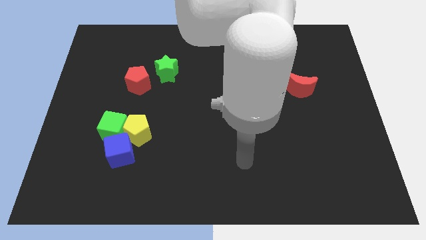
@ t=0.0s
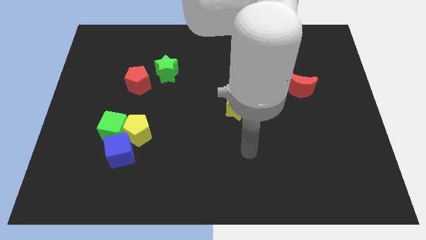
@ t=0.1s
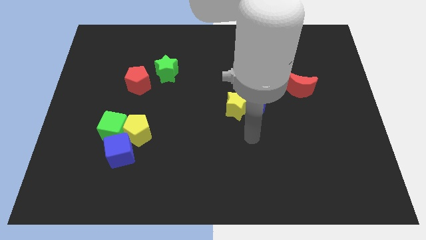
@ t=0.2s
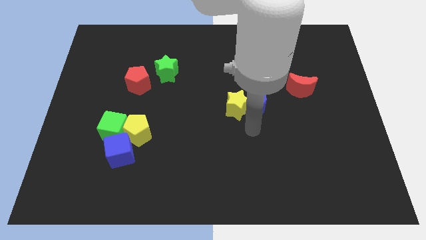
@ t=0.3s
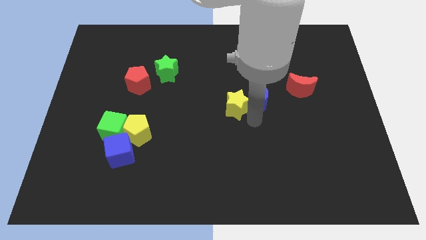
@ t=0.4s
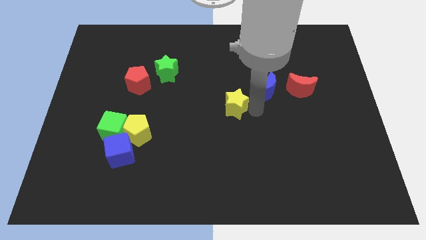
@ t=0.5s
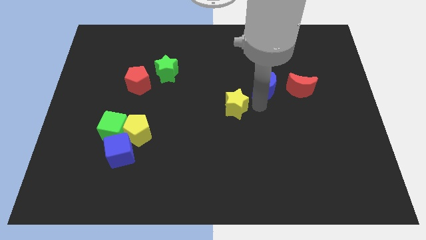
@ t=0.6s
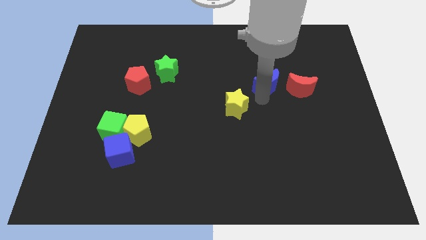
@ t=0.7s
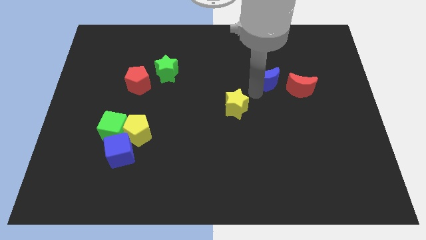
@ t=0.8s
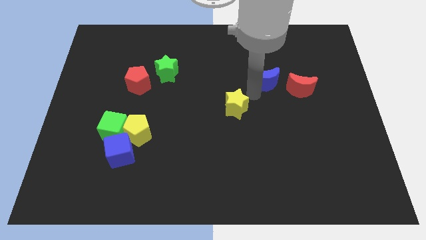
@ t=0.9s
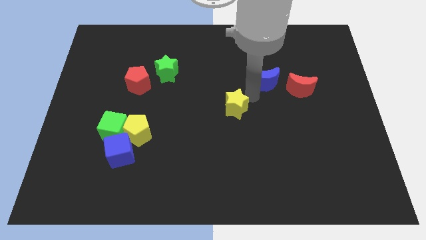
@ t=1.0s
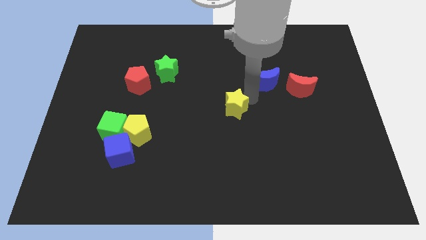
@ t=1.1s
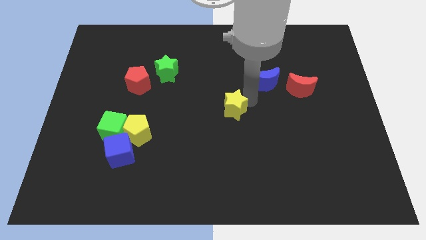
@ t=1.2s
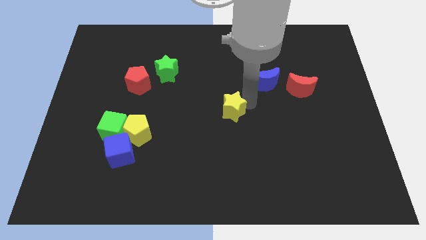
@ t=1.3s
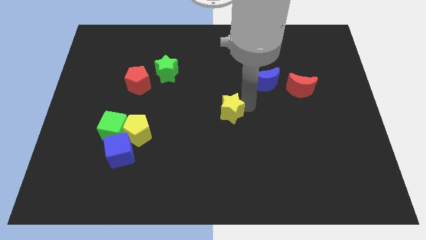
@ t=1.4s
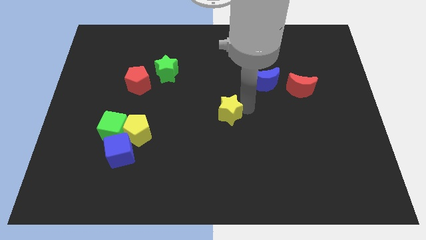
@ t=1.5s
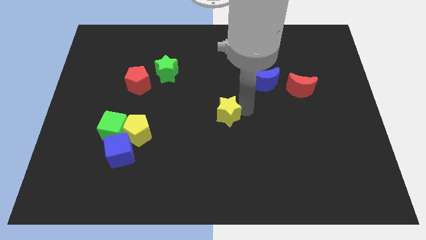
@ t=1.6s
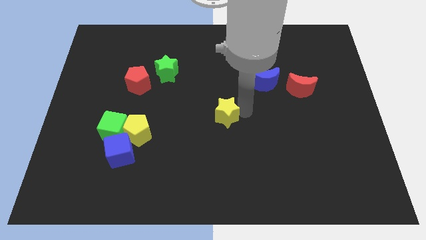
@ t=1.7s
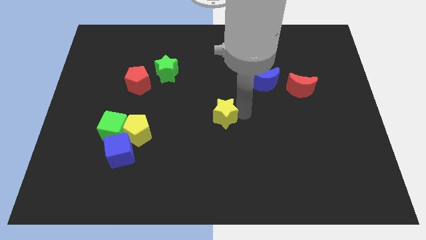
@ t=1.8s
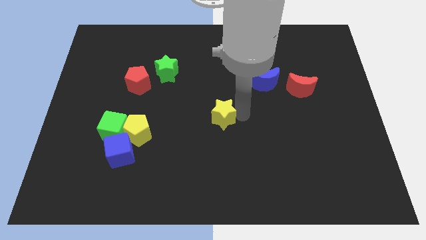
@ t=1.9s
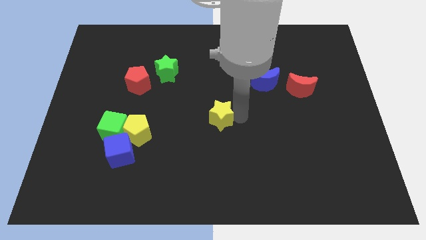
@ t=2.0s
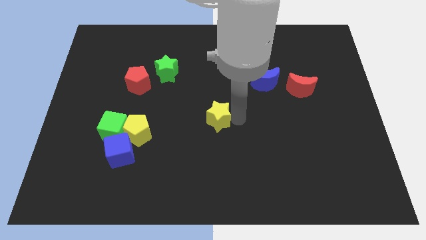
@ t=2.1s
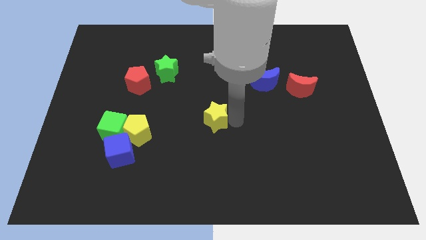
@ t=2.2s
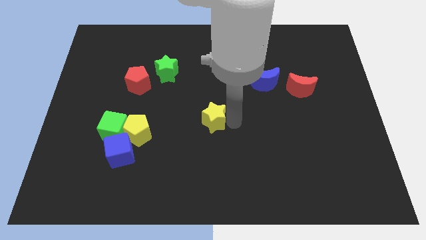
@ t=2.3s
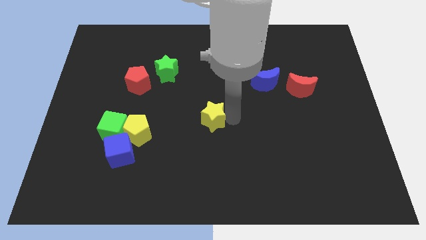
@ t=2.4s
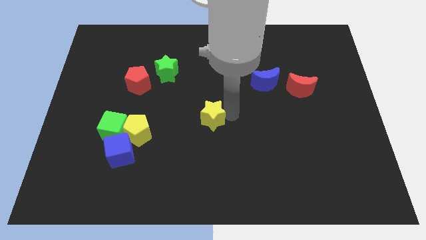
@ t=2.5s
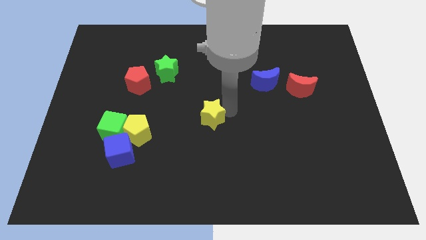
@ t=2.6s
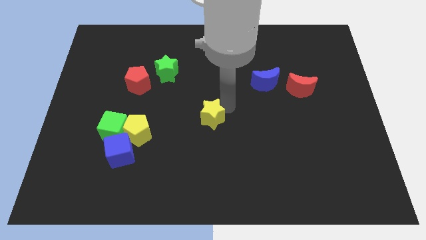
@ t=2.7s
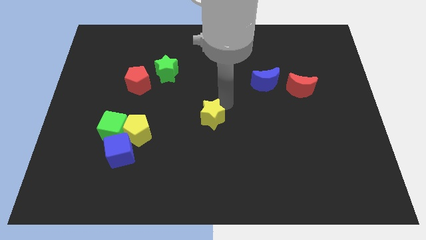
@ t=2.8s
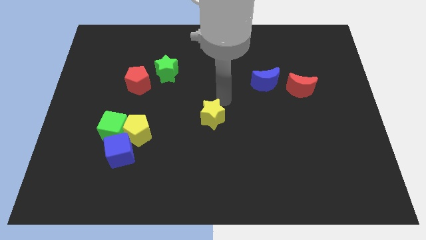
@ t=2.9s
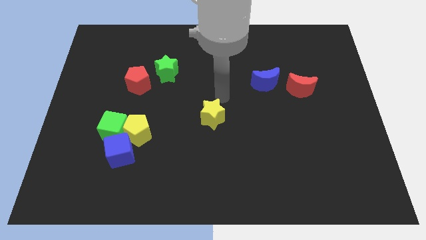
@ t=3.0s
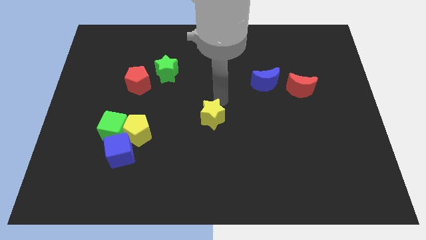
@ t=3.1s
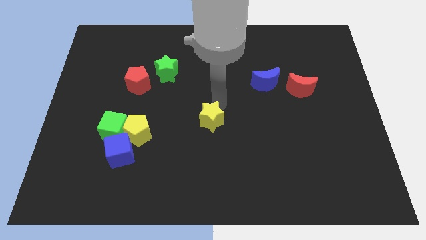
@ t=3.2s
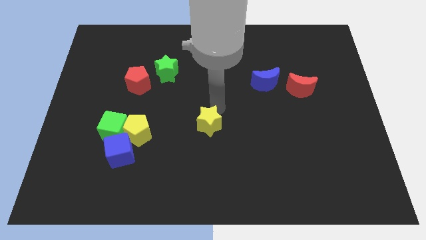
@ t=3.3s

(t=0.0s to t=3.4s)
push the yellow star a little bit diagonally downwards and left

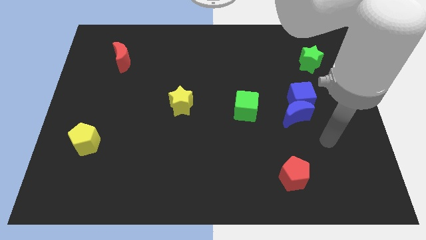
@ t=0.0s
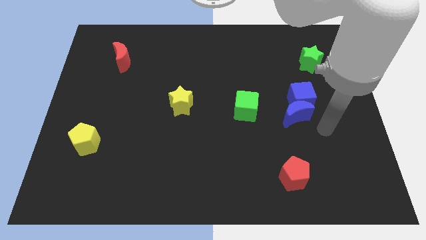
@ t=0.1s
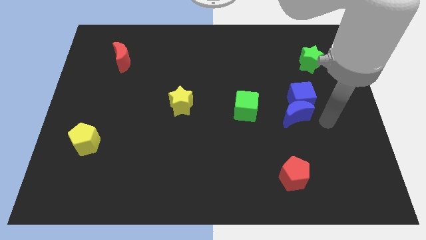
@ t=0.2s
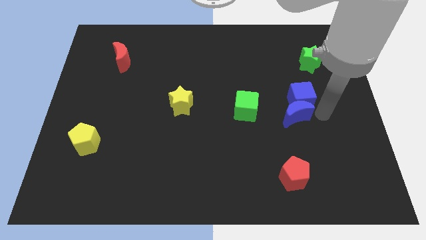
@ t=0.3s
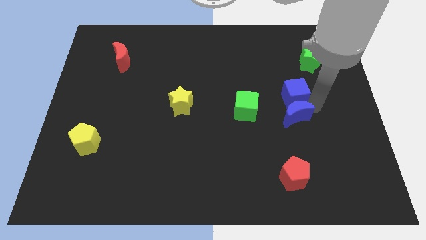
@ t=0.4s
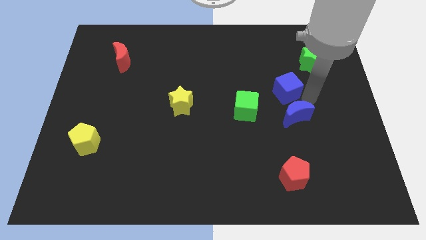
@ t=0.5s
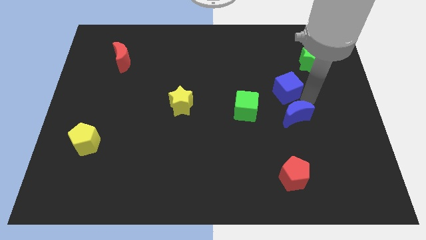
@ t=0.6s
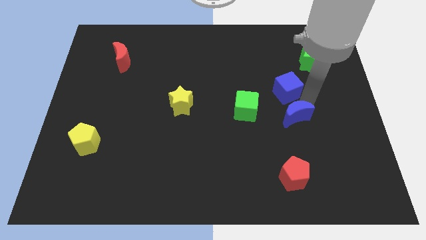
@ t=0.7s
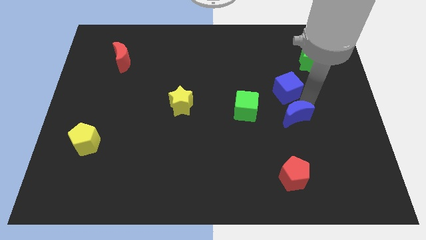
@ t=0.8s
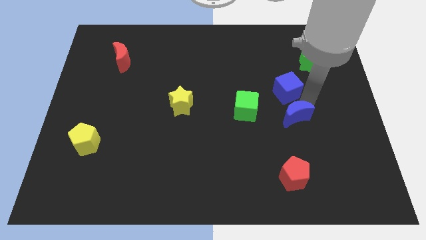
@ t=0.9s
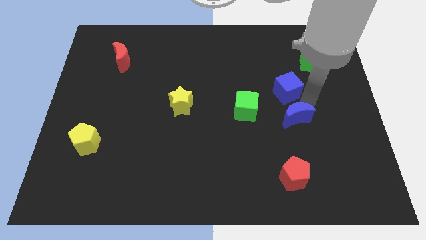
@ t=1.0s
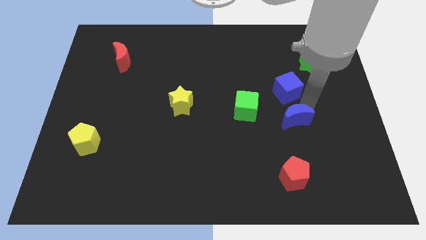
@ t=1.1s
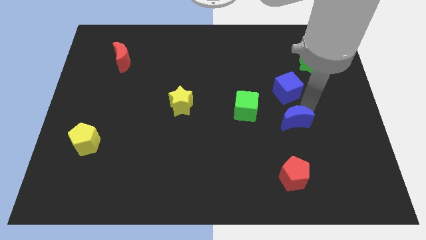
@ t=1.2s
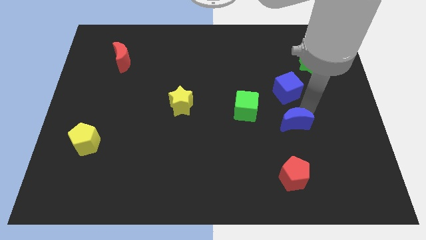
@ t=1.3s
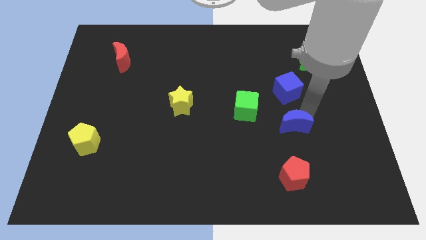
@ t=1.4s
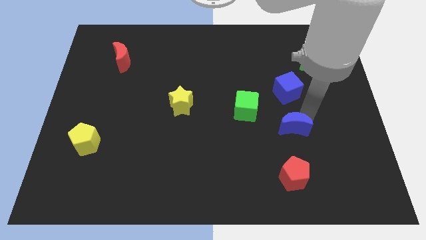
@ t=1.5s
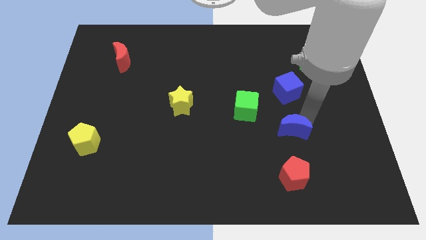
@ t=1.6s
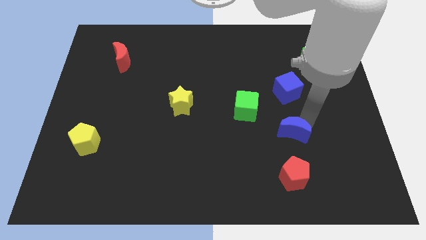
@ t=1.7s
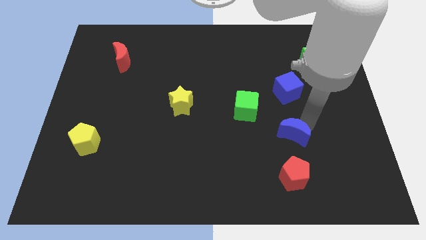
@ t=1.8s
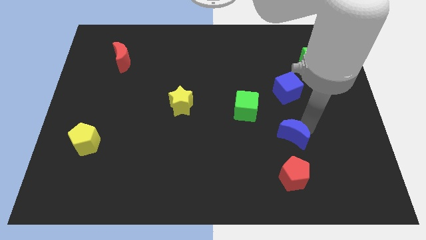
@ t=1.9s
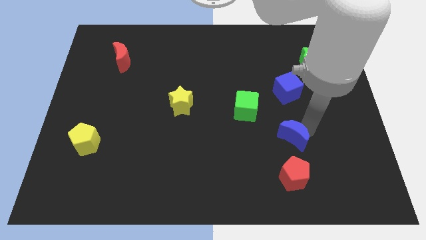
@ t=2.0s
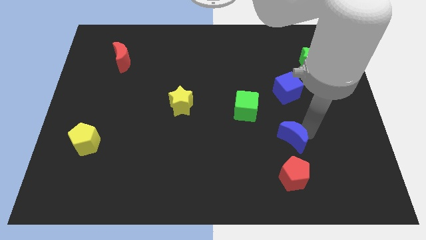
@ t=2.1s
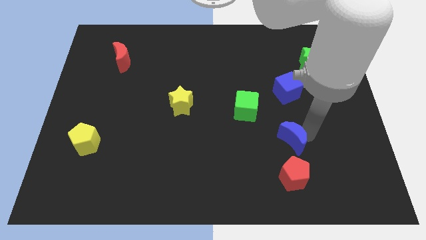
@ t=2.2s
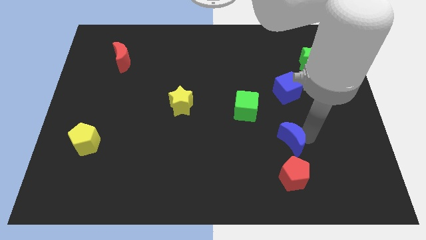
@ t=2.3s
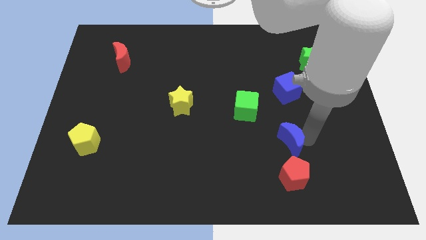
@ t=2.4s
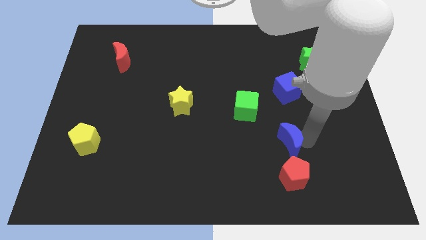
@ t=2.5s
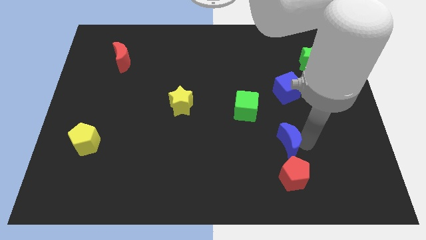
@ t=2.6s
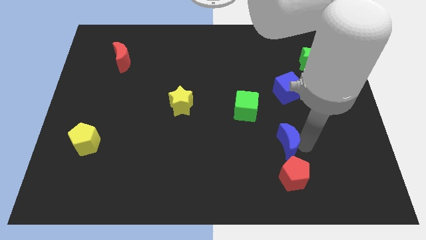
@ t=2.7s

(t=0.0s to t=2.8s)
slide the blue moon downwards and then to the left a little bit

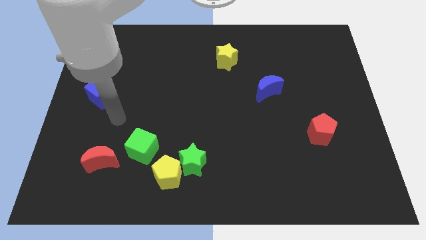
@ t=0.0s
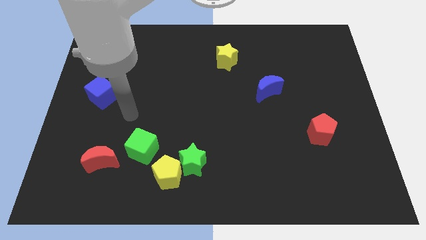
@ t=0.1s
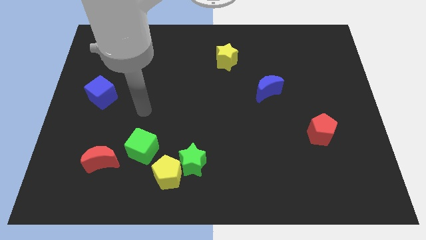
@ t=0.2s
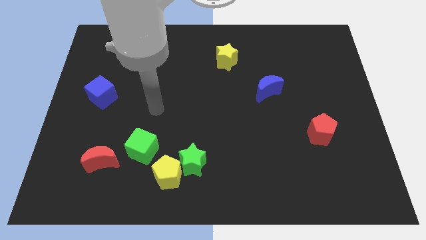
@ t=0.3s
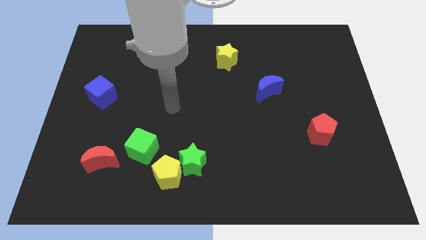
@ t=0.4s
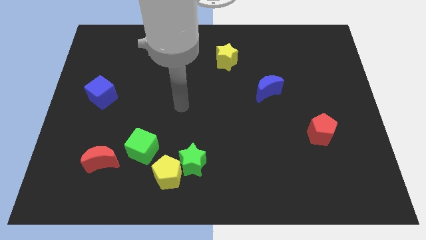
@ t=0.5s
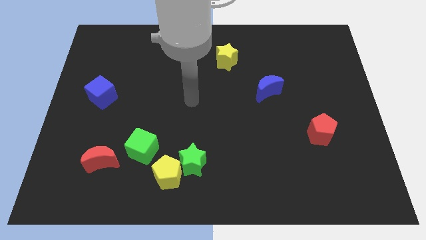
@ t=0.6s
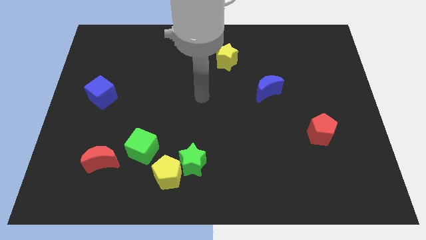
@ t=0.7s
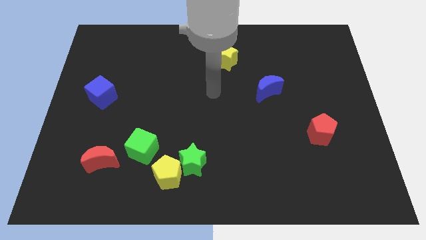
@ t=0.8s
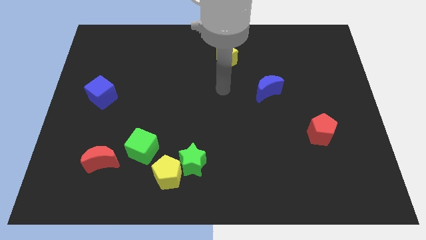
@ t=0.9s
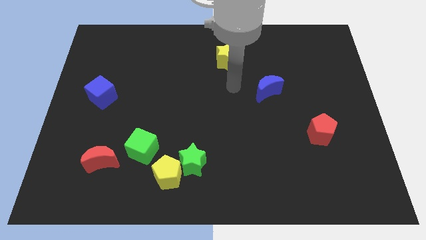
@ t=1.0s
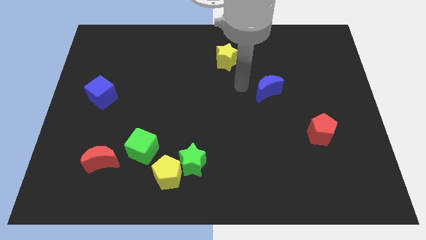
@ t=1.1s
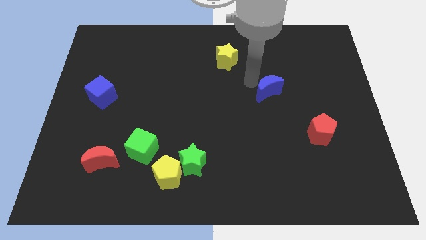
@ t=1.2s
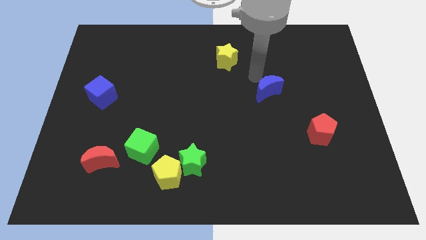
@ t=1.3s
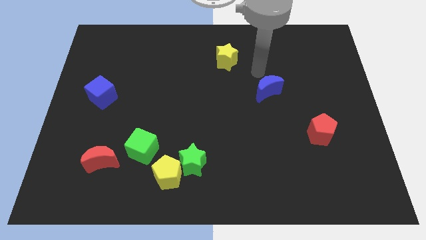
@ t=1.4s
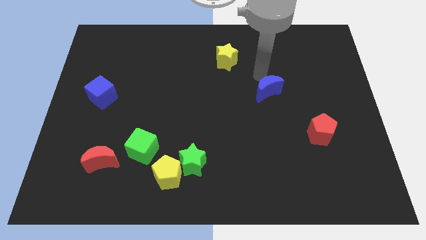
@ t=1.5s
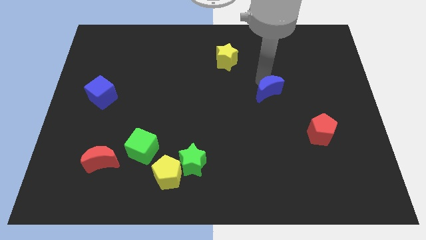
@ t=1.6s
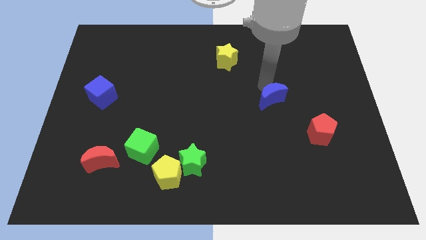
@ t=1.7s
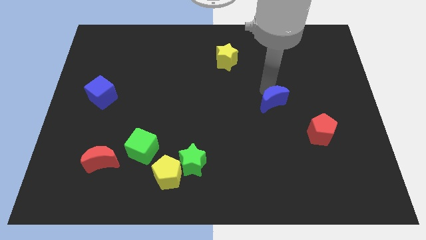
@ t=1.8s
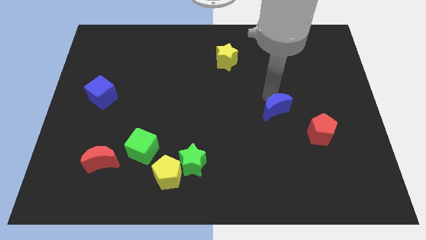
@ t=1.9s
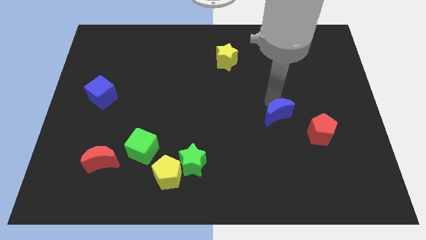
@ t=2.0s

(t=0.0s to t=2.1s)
push the blue moon slightly down
